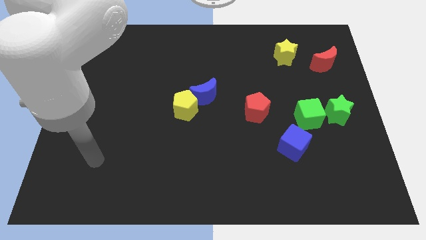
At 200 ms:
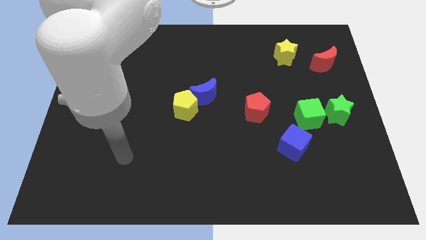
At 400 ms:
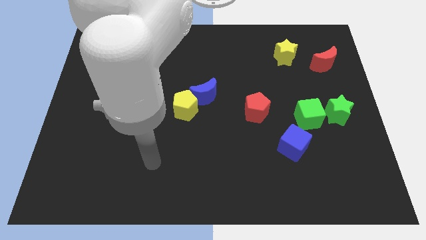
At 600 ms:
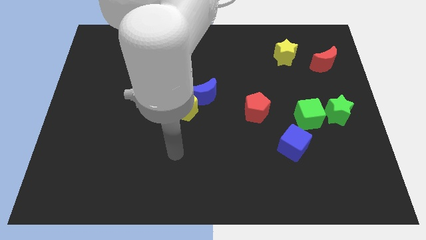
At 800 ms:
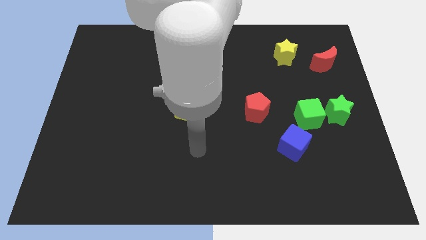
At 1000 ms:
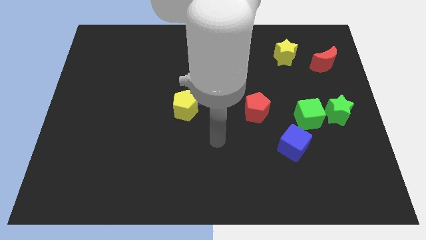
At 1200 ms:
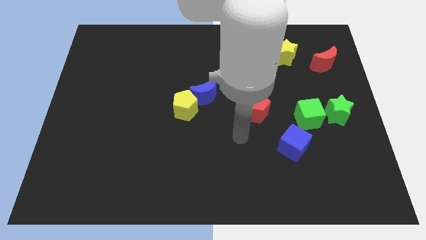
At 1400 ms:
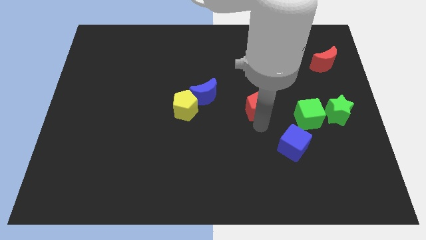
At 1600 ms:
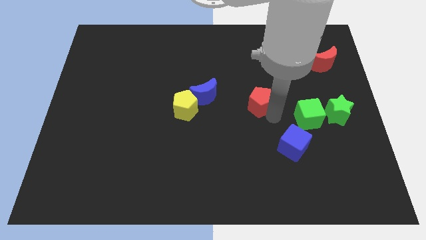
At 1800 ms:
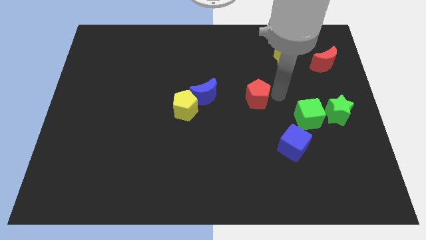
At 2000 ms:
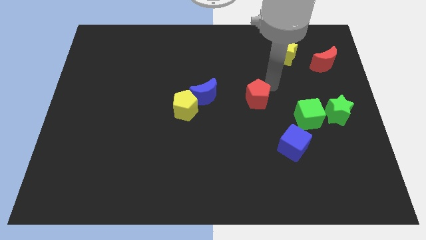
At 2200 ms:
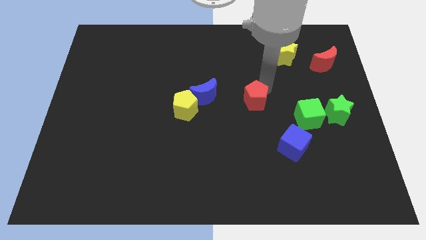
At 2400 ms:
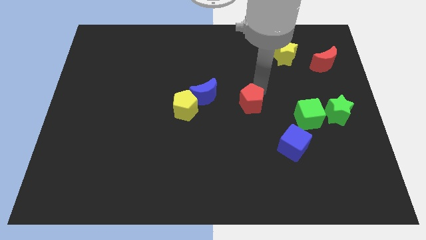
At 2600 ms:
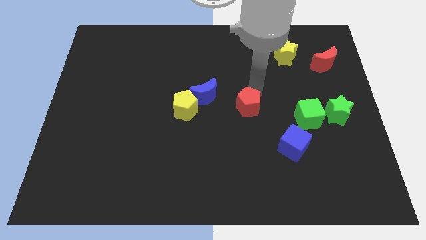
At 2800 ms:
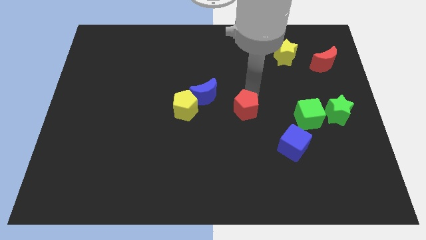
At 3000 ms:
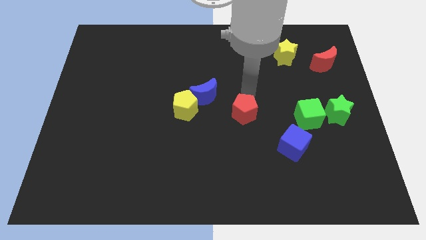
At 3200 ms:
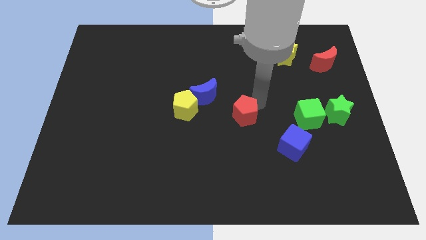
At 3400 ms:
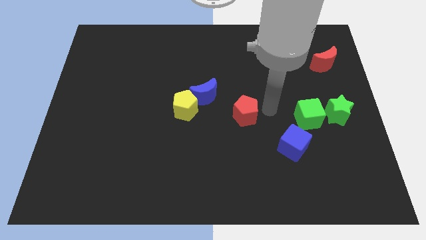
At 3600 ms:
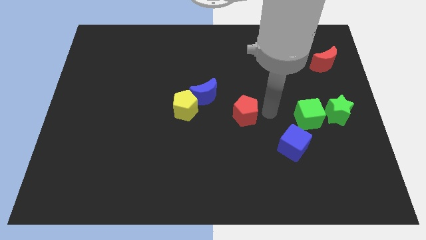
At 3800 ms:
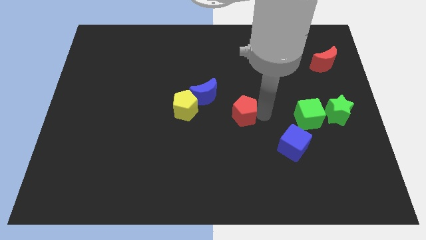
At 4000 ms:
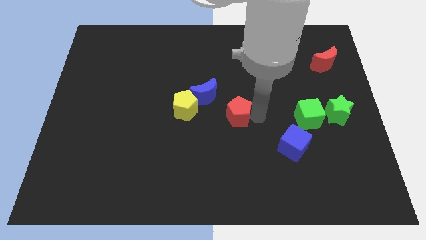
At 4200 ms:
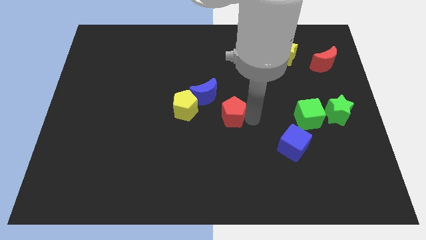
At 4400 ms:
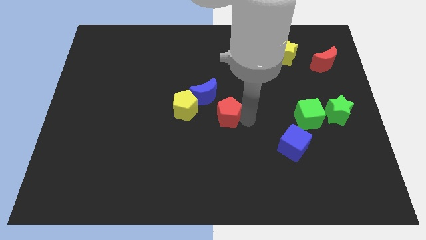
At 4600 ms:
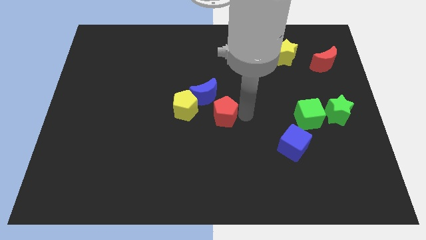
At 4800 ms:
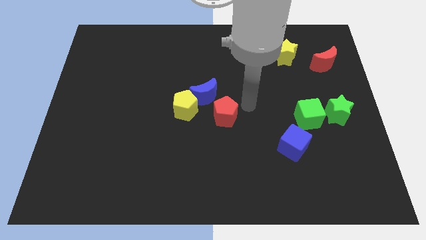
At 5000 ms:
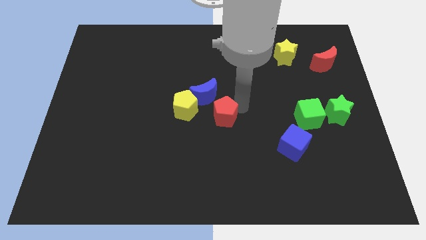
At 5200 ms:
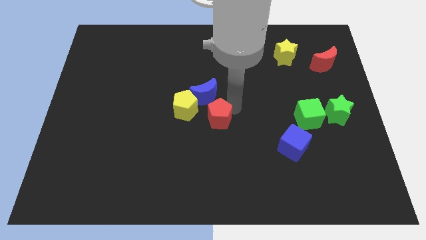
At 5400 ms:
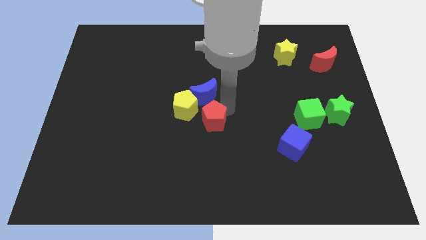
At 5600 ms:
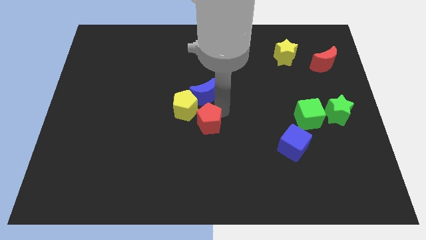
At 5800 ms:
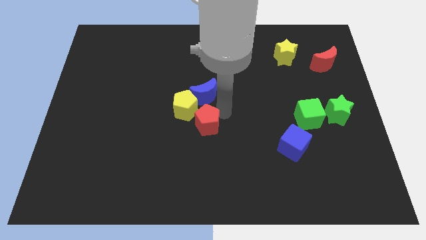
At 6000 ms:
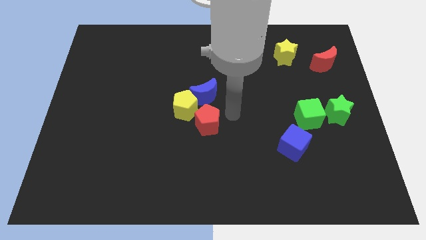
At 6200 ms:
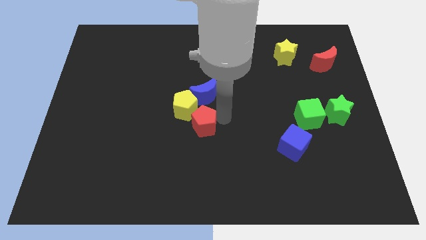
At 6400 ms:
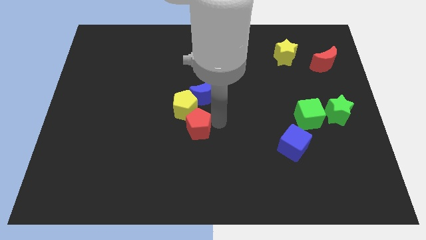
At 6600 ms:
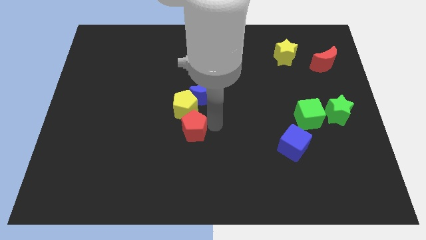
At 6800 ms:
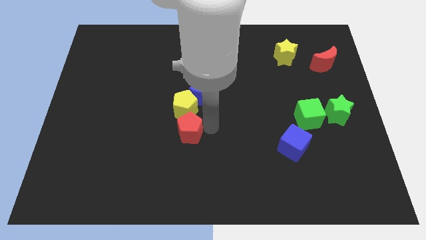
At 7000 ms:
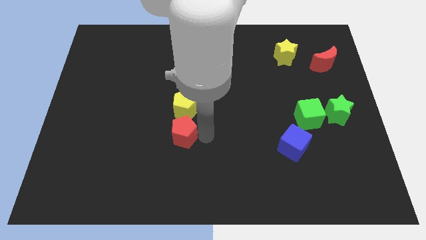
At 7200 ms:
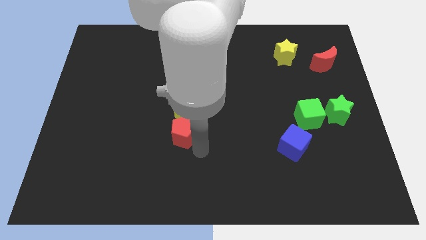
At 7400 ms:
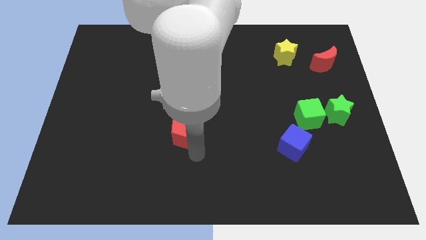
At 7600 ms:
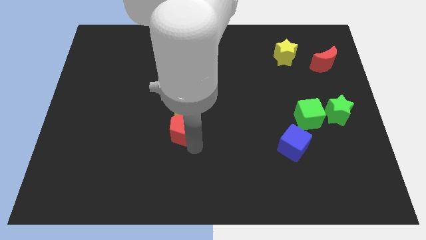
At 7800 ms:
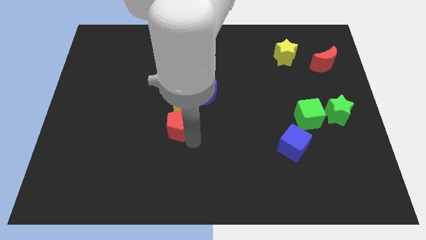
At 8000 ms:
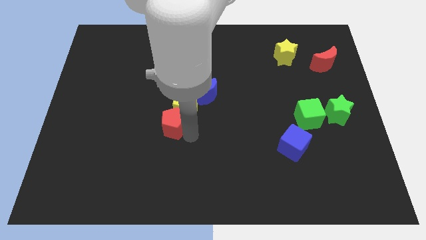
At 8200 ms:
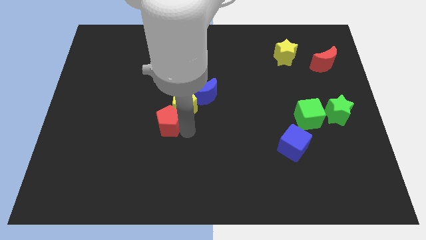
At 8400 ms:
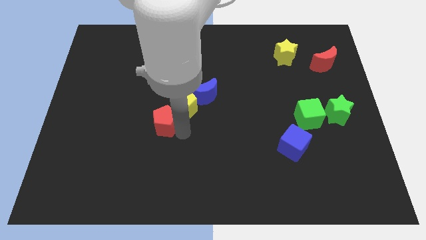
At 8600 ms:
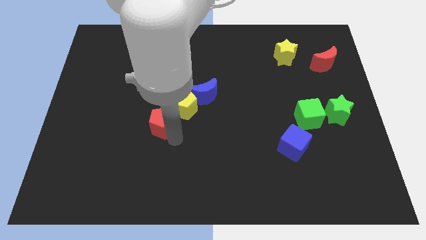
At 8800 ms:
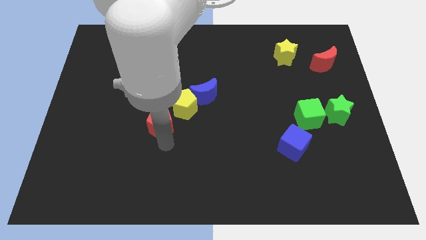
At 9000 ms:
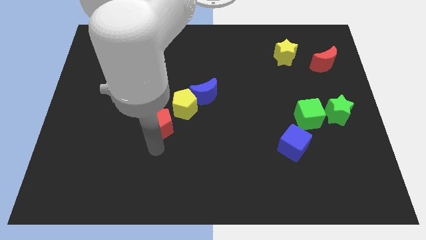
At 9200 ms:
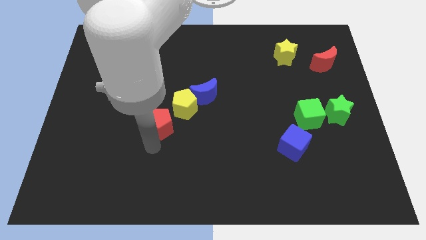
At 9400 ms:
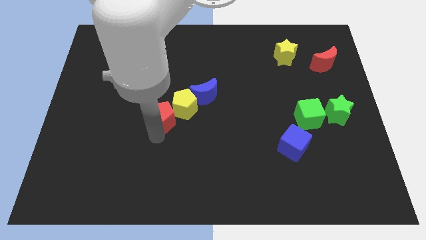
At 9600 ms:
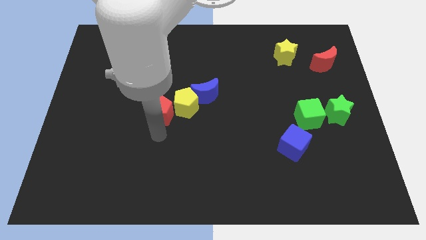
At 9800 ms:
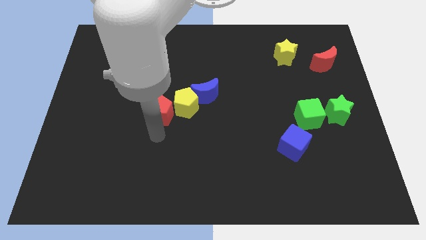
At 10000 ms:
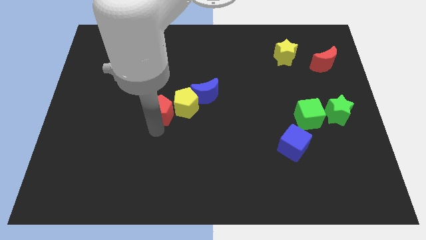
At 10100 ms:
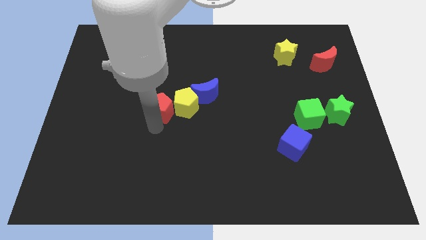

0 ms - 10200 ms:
move the red pentagon just left of the blue moon

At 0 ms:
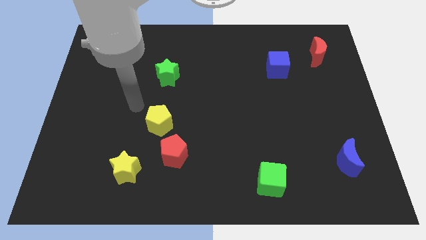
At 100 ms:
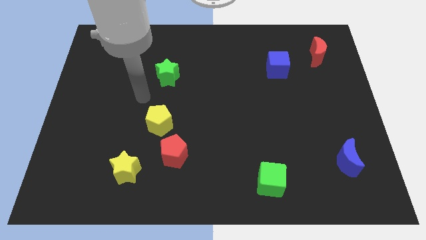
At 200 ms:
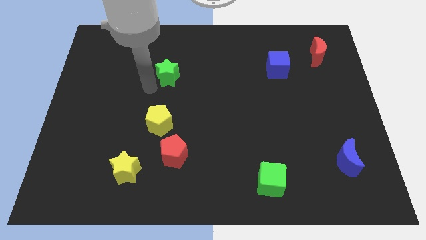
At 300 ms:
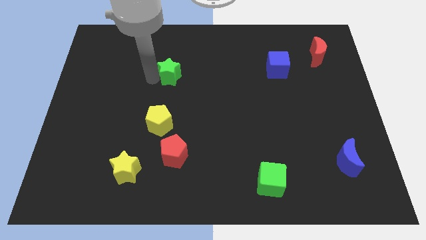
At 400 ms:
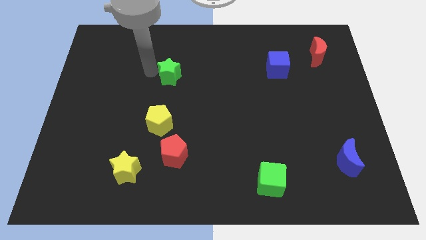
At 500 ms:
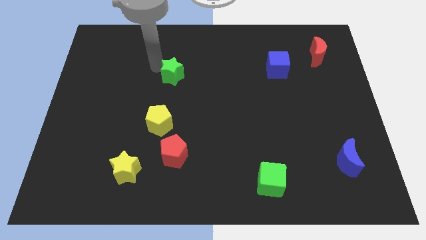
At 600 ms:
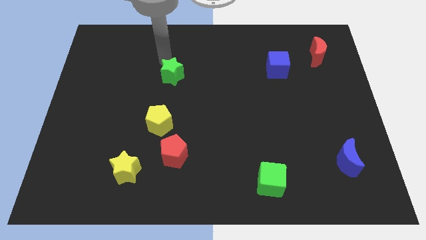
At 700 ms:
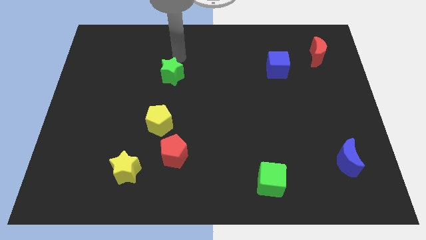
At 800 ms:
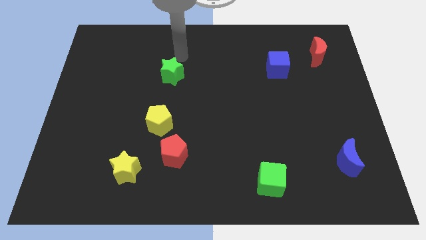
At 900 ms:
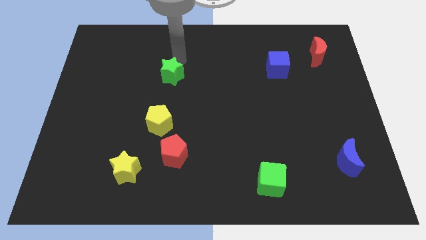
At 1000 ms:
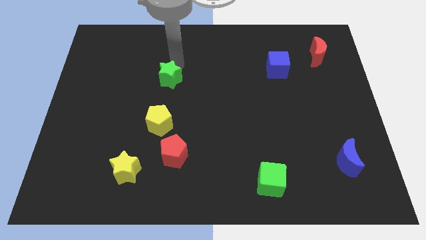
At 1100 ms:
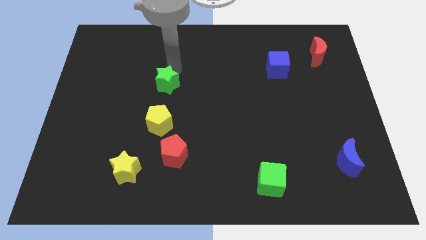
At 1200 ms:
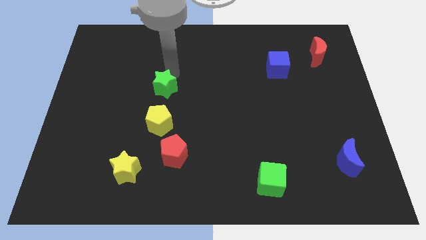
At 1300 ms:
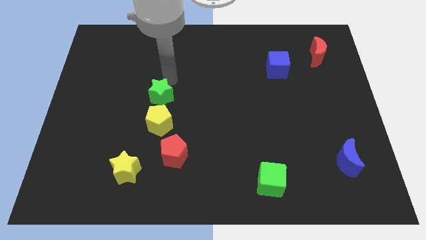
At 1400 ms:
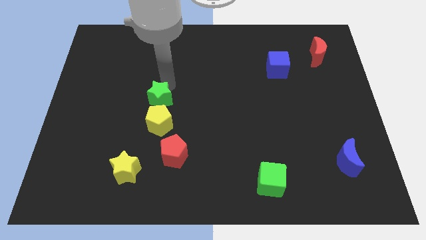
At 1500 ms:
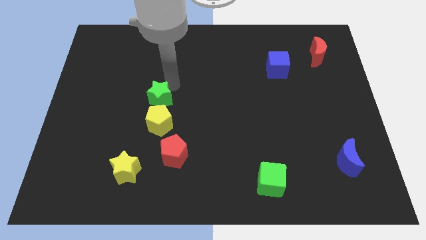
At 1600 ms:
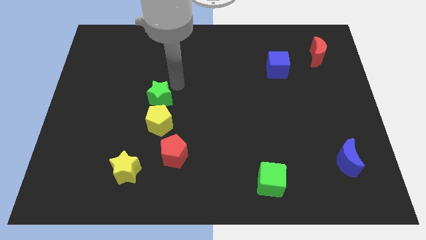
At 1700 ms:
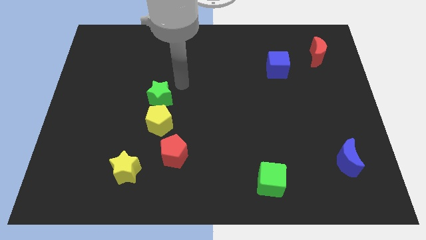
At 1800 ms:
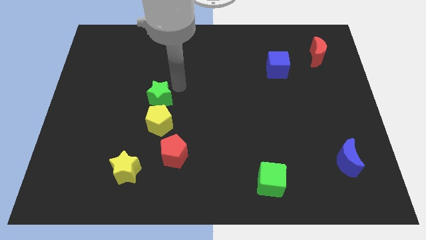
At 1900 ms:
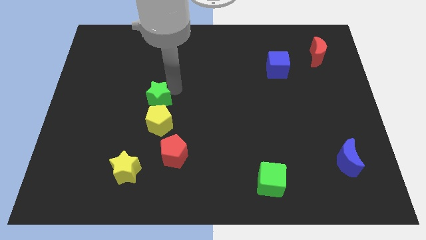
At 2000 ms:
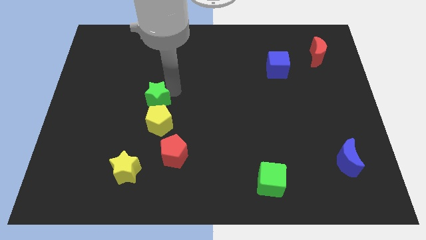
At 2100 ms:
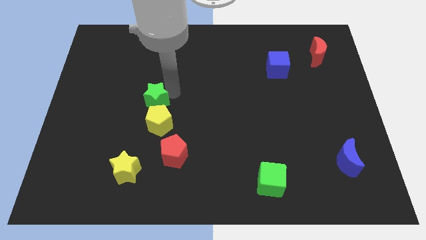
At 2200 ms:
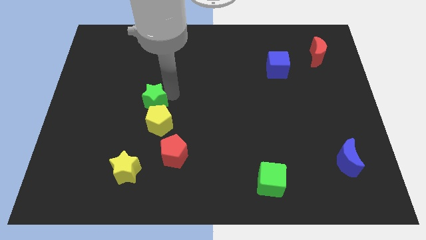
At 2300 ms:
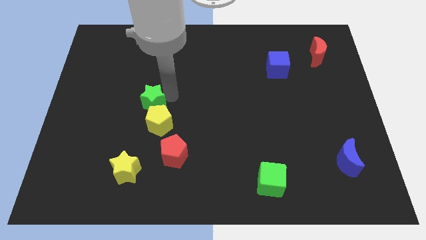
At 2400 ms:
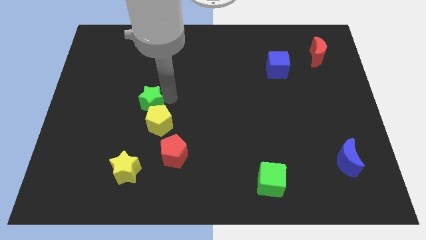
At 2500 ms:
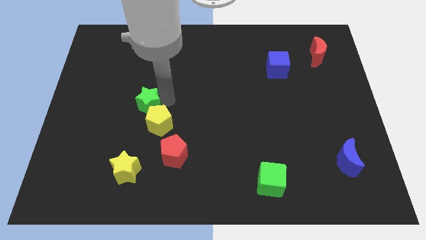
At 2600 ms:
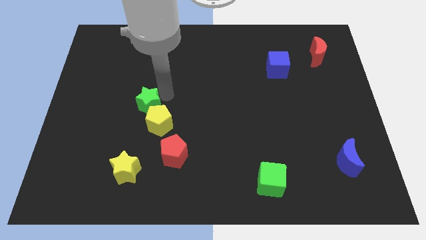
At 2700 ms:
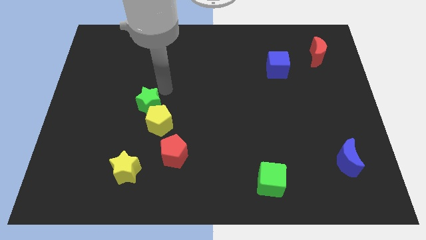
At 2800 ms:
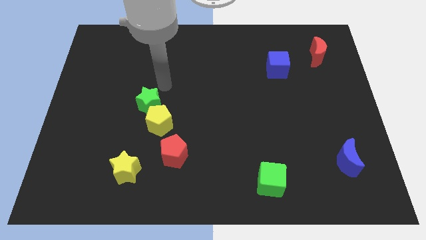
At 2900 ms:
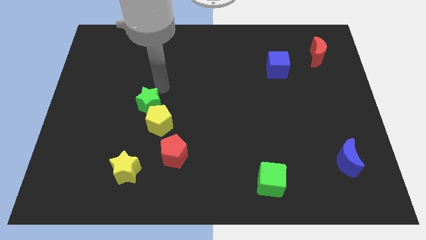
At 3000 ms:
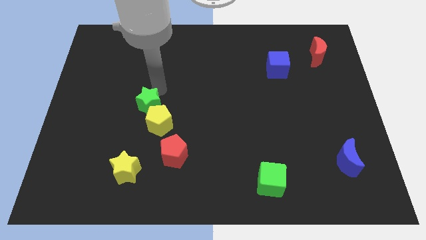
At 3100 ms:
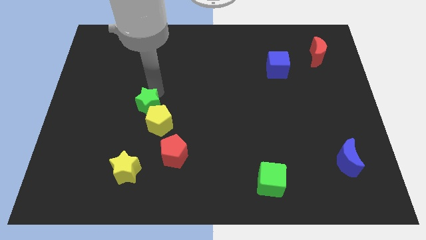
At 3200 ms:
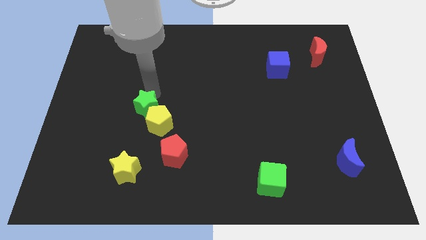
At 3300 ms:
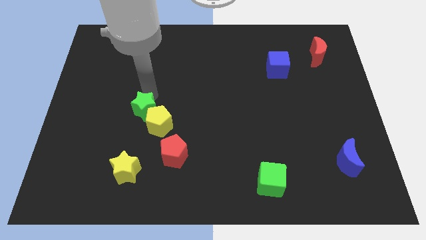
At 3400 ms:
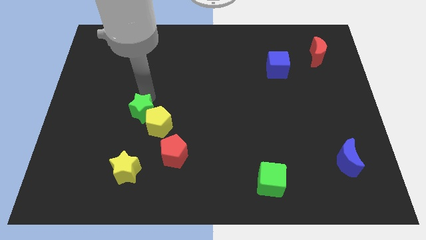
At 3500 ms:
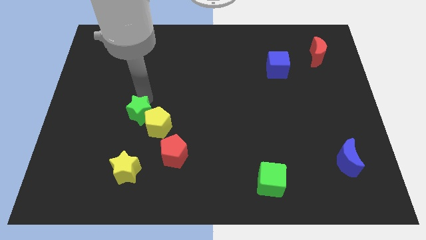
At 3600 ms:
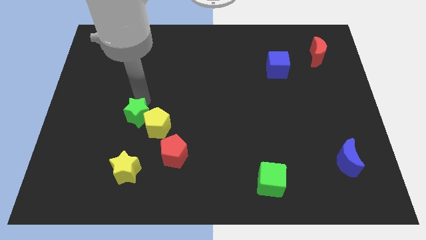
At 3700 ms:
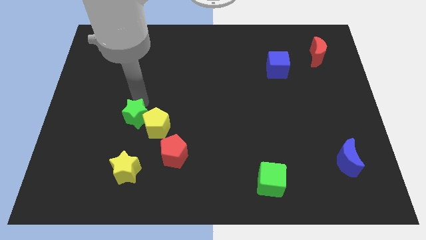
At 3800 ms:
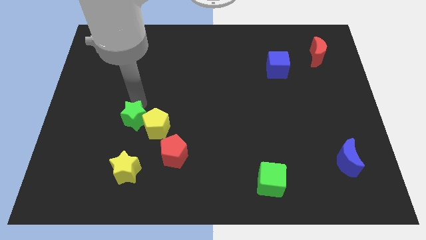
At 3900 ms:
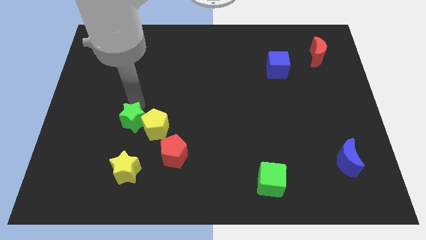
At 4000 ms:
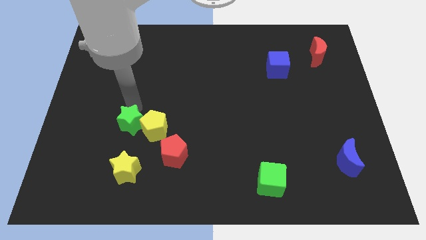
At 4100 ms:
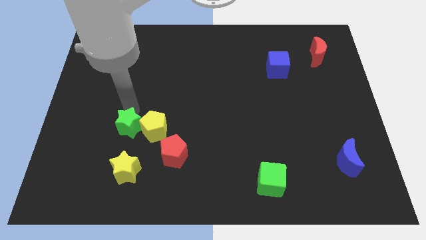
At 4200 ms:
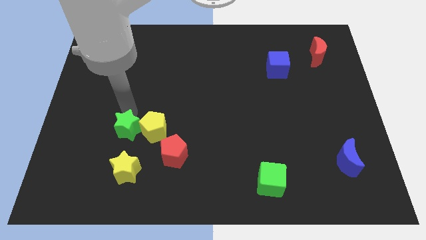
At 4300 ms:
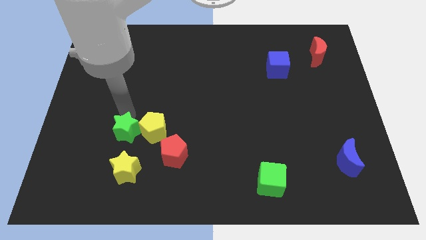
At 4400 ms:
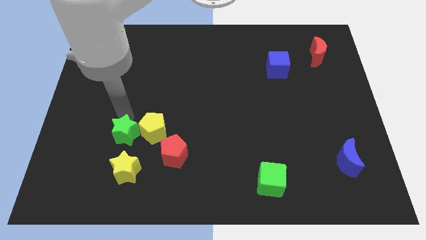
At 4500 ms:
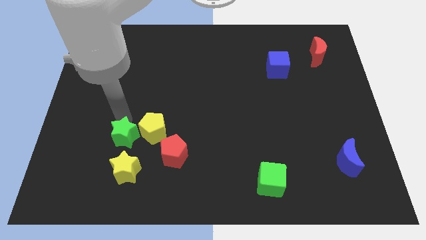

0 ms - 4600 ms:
slide the green star left of the red pentagon
